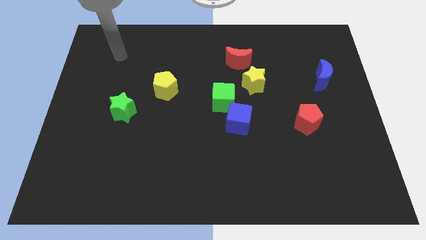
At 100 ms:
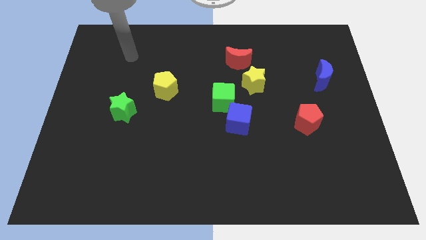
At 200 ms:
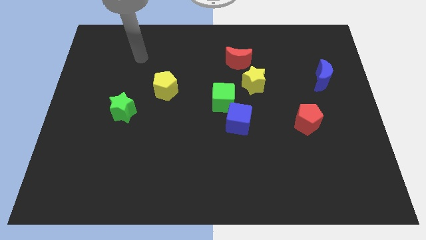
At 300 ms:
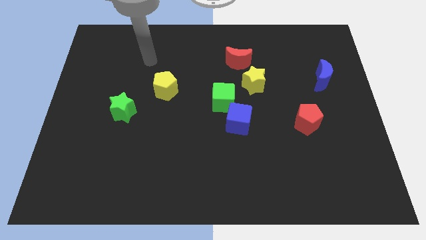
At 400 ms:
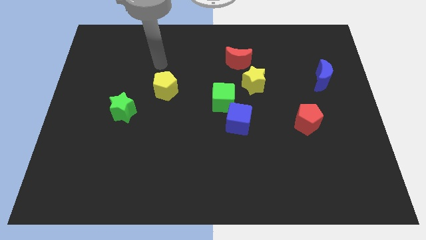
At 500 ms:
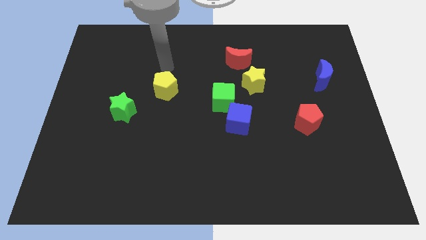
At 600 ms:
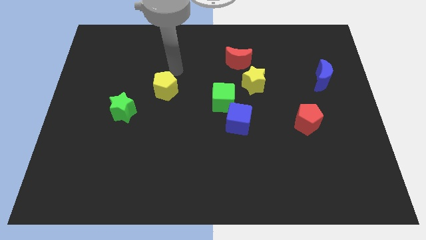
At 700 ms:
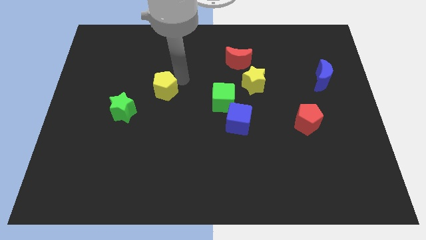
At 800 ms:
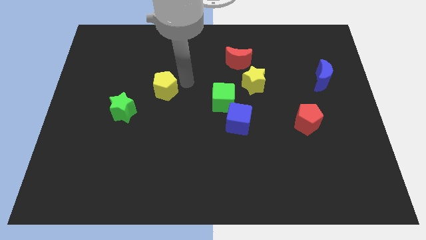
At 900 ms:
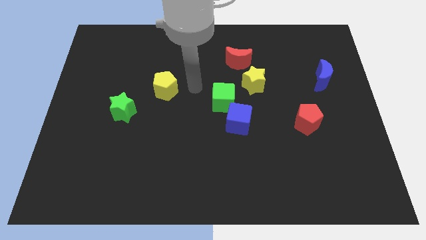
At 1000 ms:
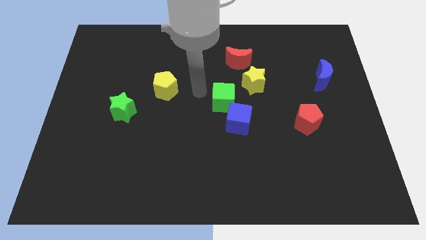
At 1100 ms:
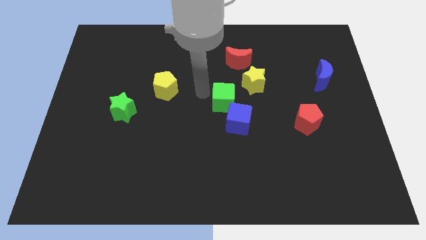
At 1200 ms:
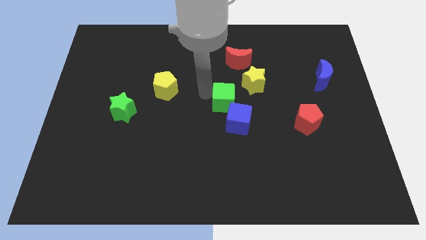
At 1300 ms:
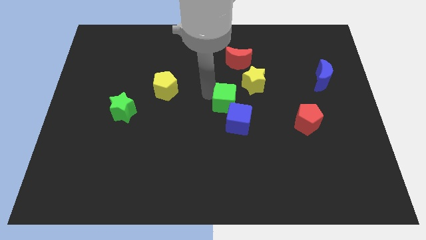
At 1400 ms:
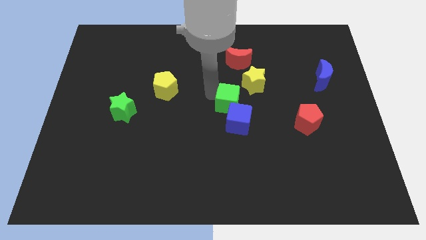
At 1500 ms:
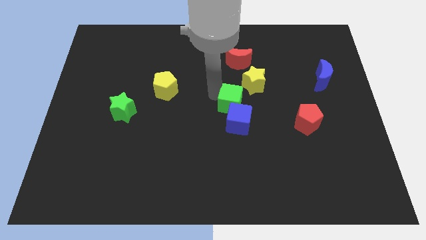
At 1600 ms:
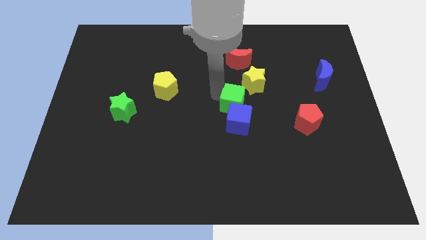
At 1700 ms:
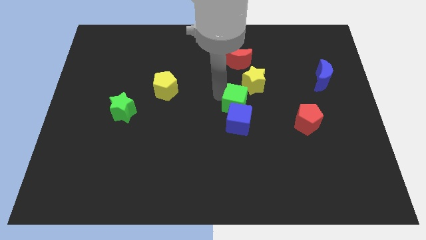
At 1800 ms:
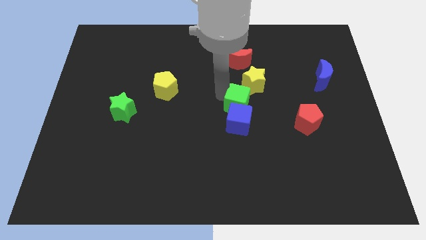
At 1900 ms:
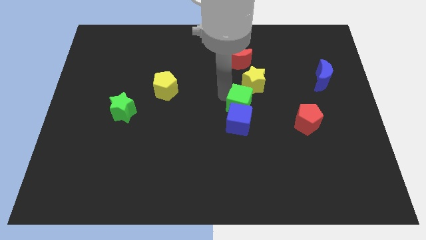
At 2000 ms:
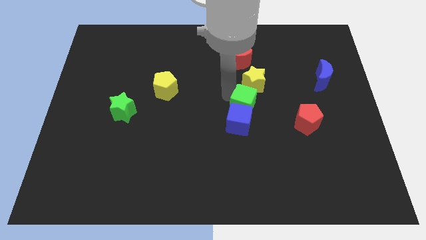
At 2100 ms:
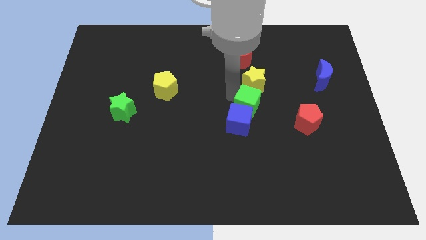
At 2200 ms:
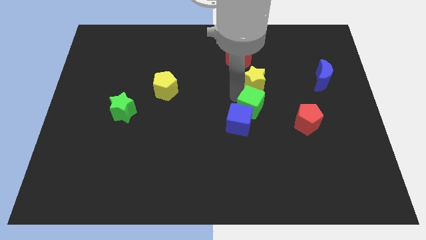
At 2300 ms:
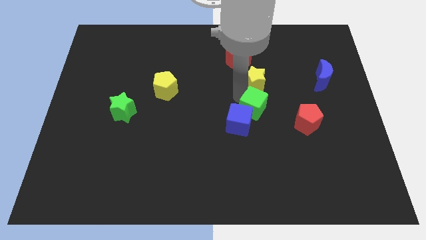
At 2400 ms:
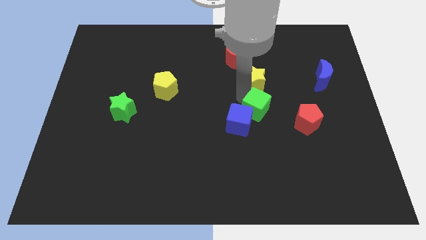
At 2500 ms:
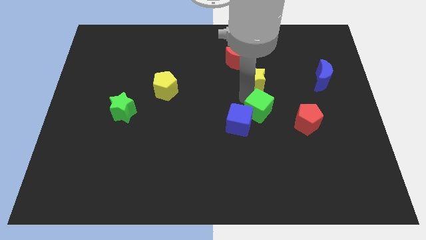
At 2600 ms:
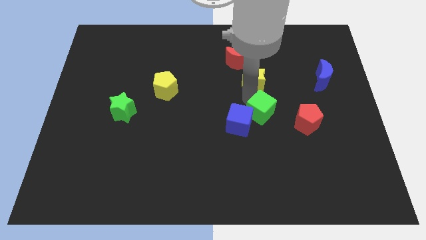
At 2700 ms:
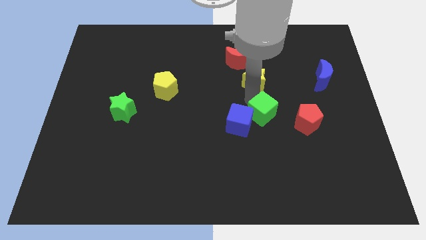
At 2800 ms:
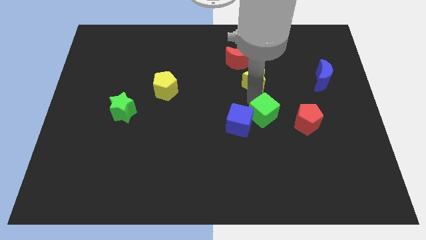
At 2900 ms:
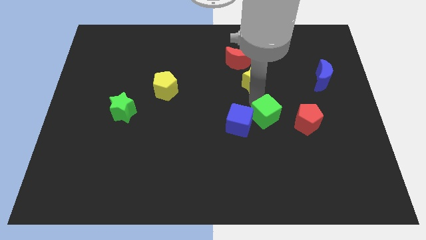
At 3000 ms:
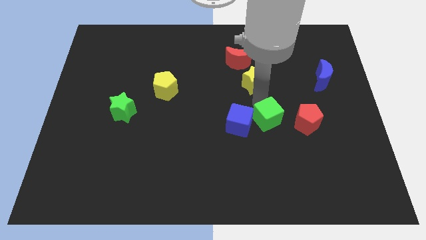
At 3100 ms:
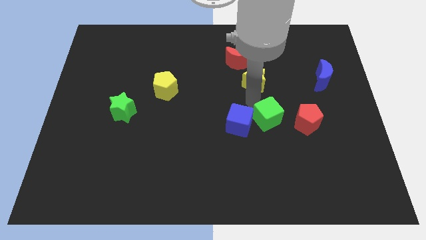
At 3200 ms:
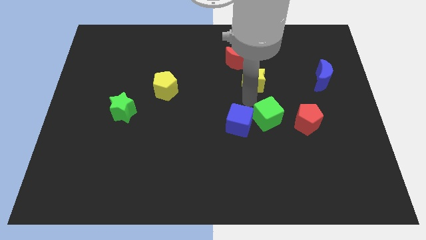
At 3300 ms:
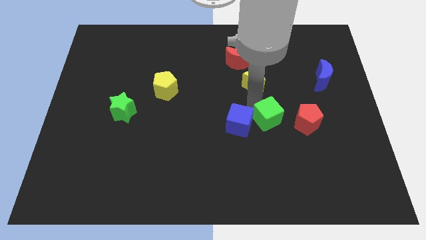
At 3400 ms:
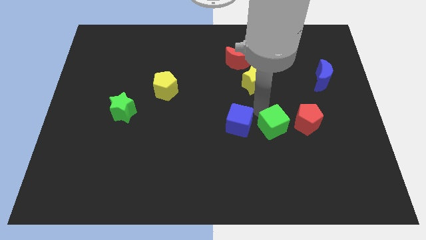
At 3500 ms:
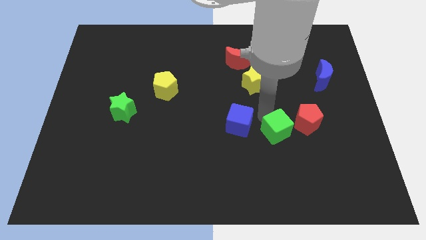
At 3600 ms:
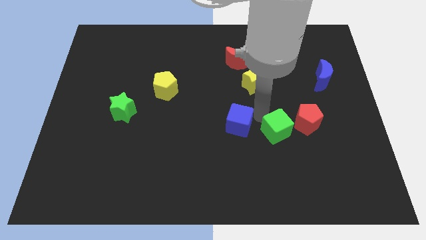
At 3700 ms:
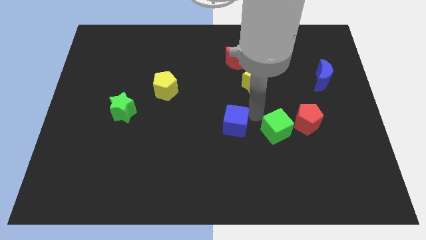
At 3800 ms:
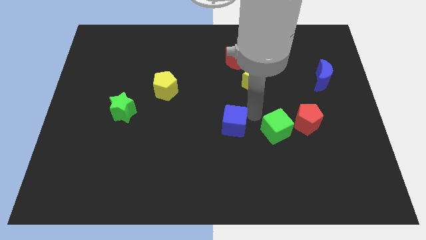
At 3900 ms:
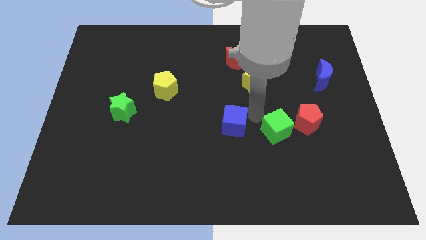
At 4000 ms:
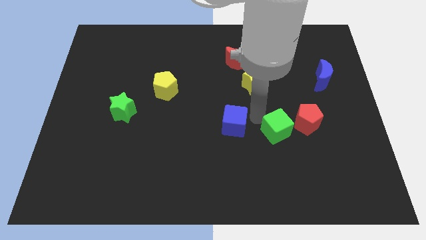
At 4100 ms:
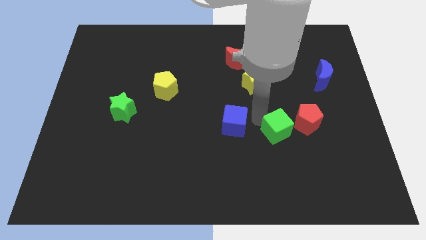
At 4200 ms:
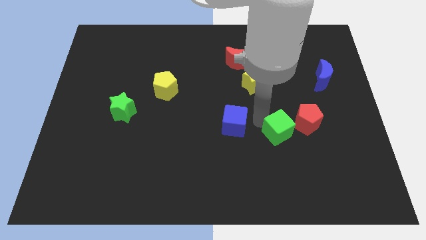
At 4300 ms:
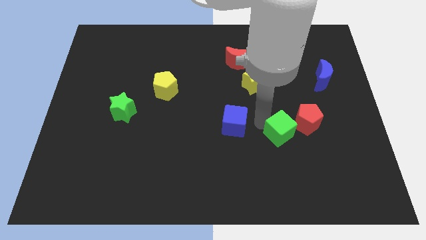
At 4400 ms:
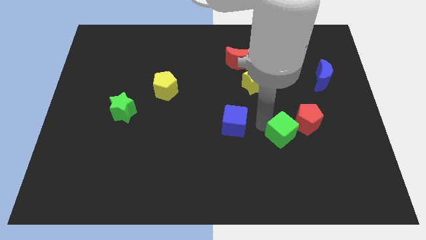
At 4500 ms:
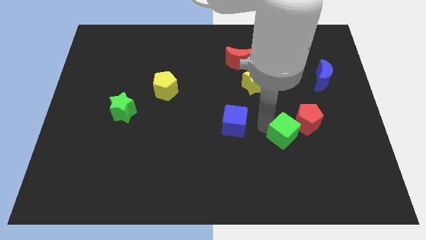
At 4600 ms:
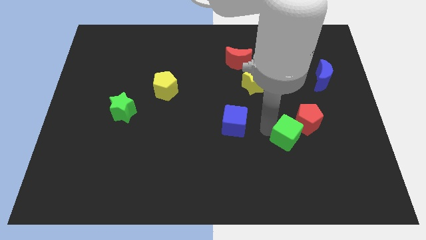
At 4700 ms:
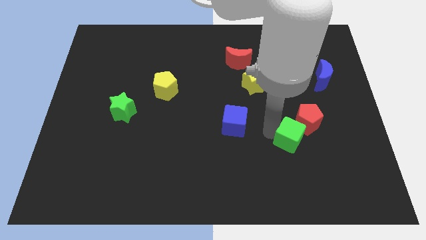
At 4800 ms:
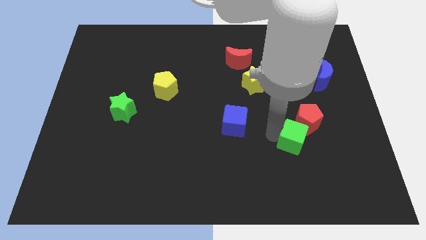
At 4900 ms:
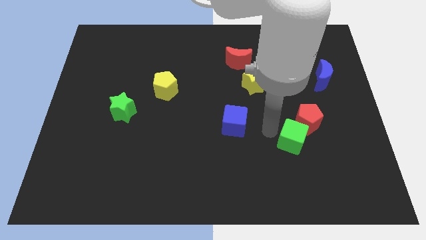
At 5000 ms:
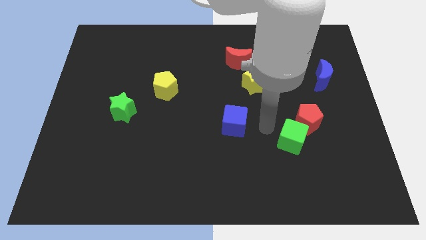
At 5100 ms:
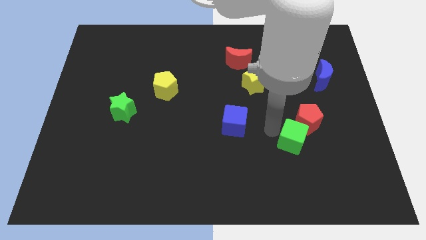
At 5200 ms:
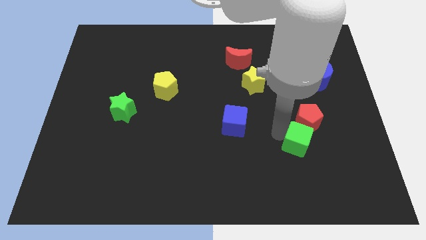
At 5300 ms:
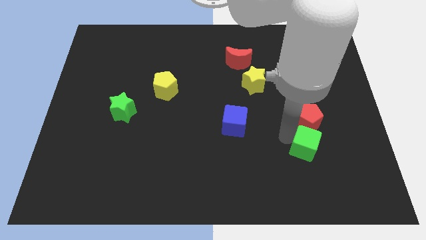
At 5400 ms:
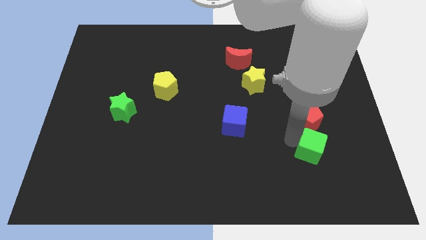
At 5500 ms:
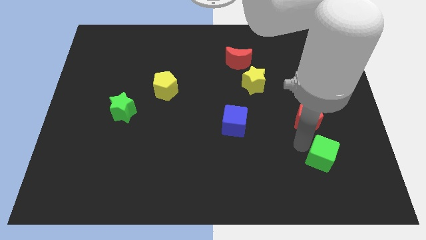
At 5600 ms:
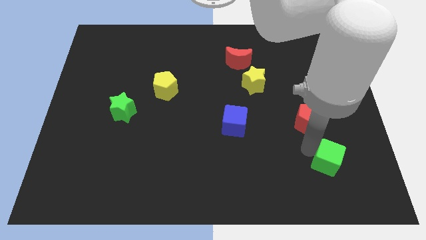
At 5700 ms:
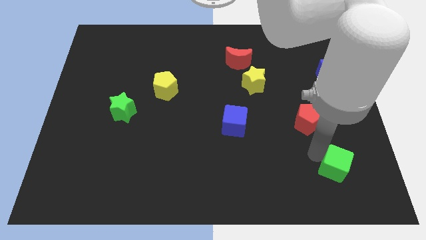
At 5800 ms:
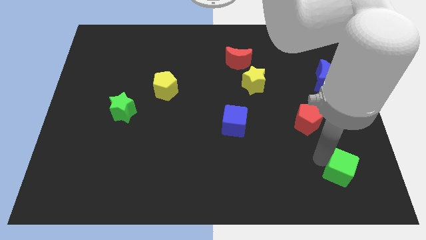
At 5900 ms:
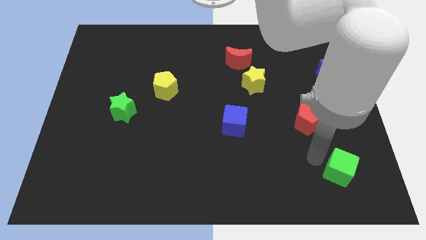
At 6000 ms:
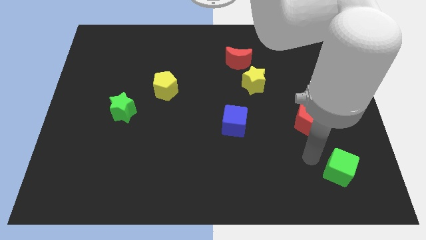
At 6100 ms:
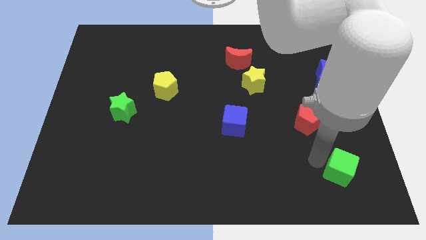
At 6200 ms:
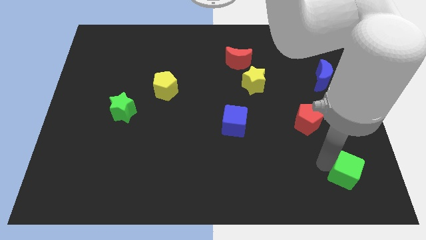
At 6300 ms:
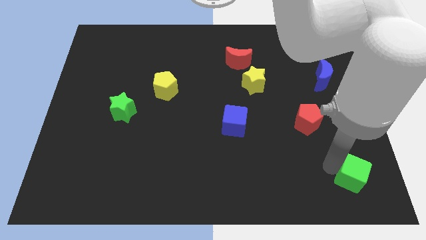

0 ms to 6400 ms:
move the green cube to the bottom right of the board

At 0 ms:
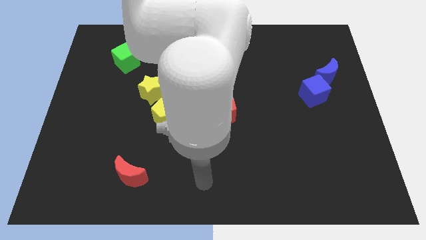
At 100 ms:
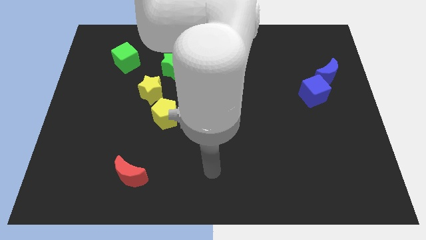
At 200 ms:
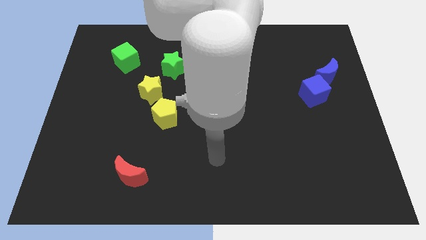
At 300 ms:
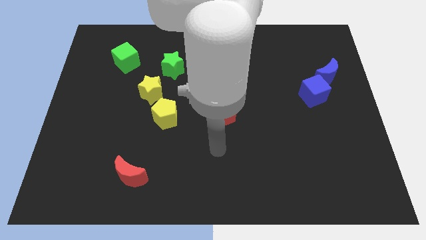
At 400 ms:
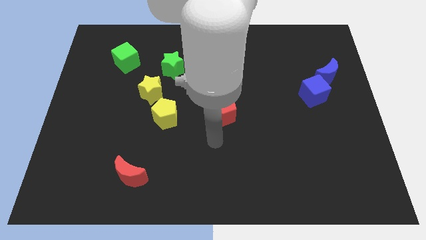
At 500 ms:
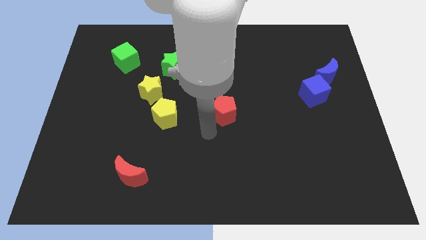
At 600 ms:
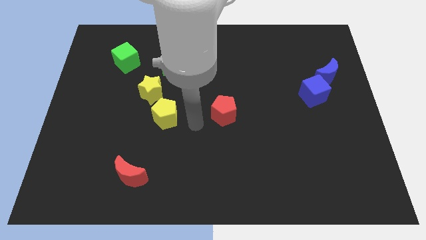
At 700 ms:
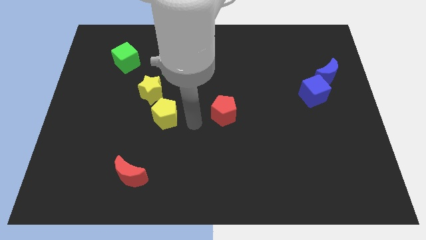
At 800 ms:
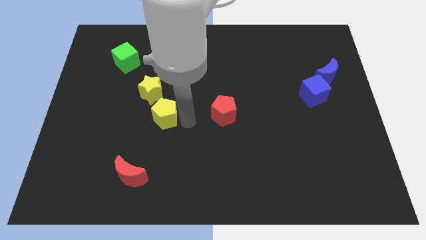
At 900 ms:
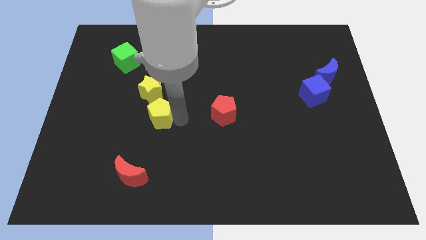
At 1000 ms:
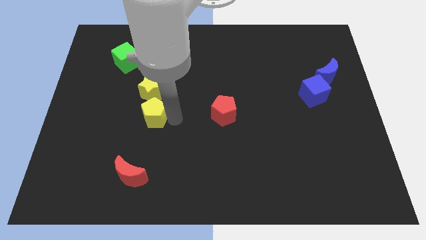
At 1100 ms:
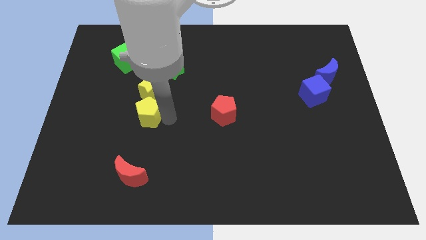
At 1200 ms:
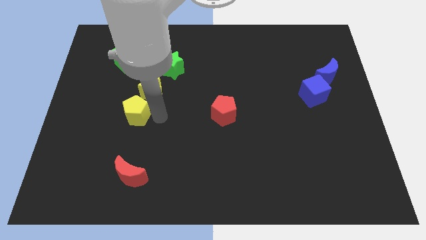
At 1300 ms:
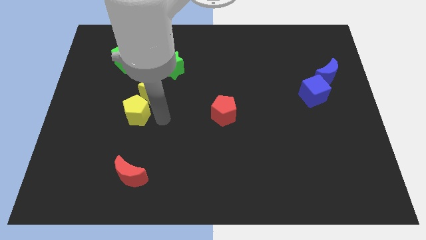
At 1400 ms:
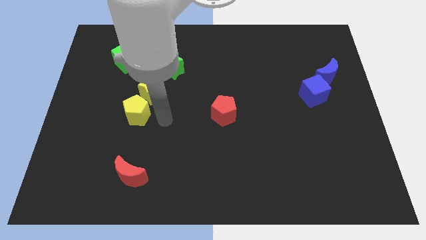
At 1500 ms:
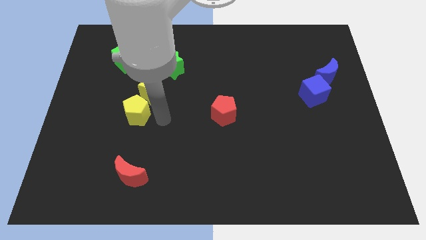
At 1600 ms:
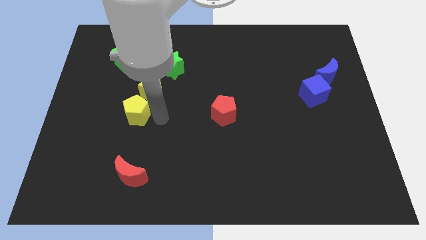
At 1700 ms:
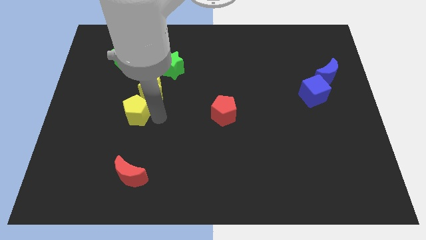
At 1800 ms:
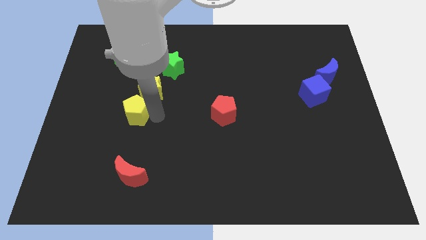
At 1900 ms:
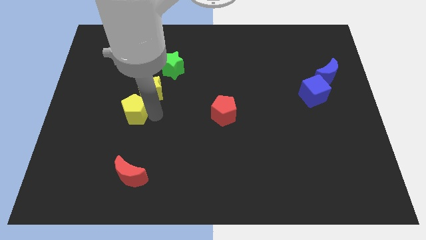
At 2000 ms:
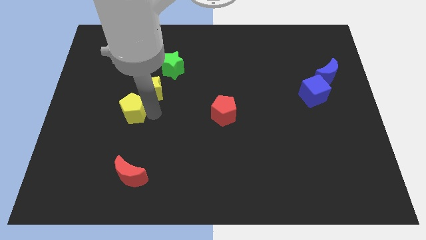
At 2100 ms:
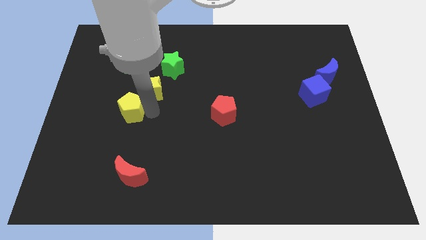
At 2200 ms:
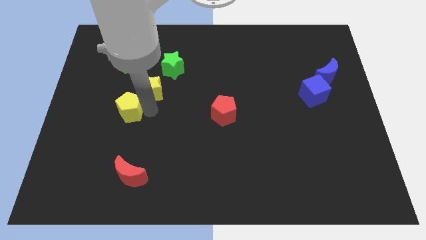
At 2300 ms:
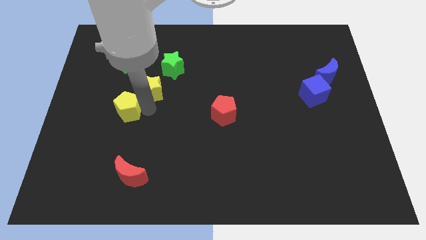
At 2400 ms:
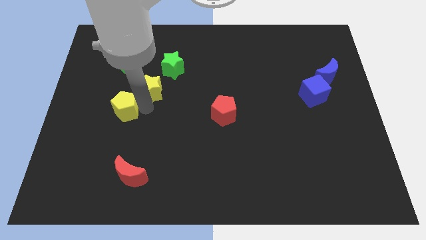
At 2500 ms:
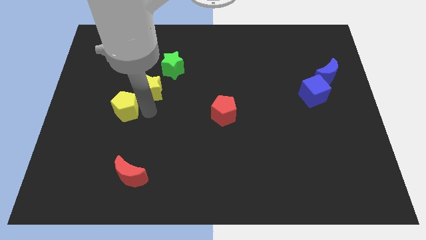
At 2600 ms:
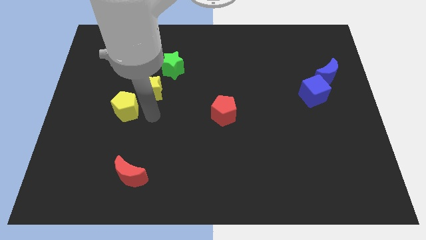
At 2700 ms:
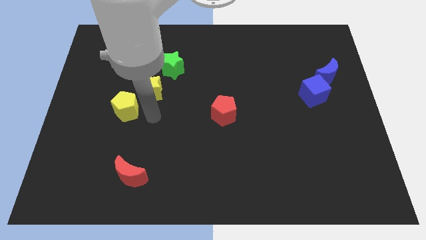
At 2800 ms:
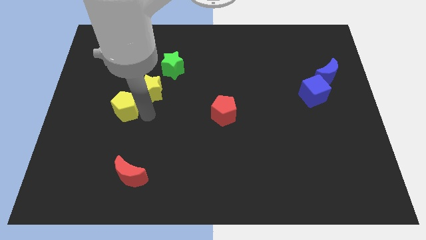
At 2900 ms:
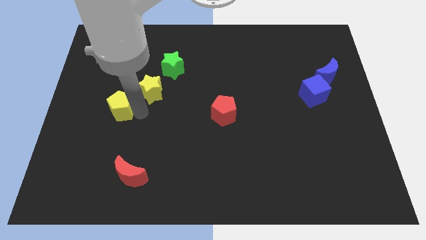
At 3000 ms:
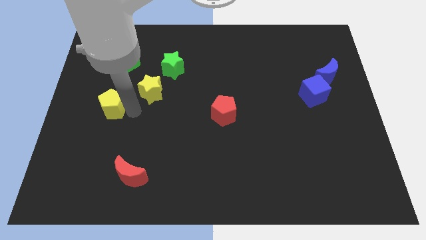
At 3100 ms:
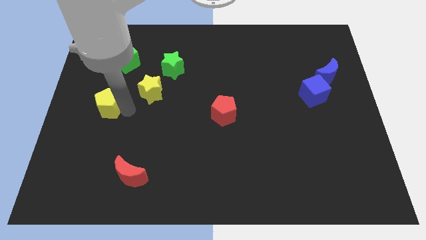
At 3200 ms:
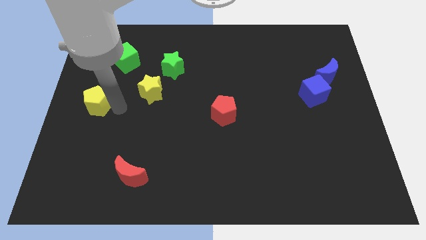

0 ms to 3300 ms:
push the yellow pentagon to the left side of the board
